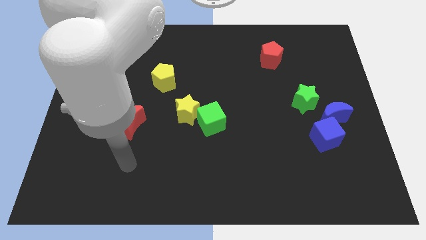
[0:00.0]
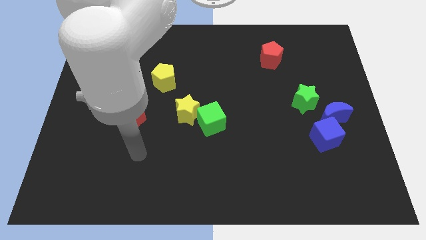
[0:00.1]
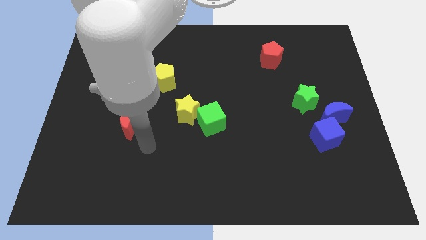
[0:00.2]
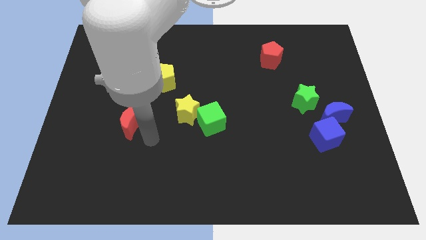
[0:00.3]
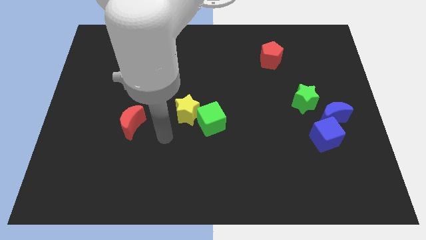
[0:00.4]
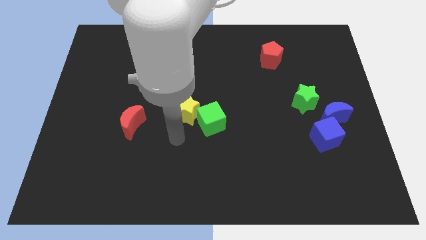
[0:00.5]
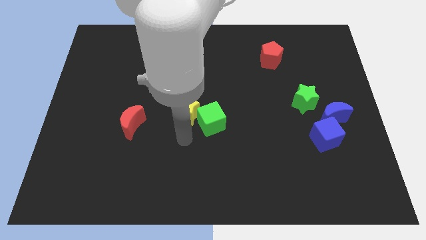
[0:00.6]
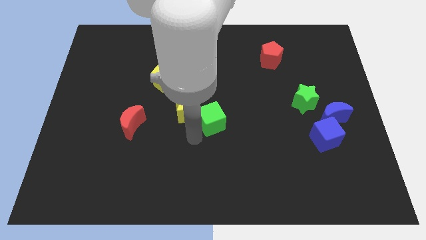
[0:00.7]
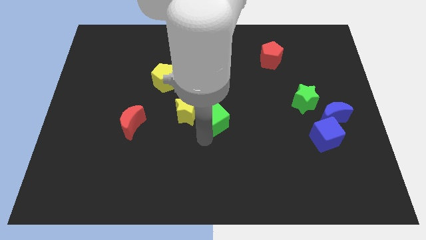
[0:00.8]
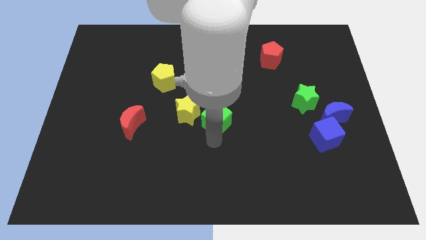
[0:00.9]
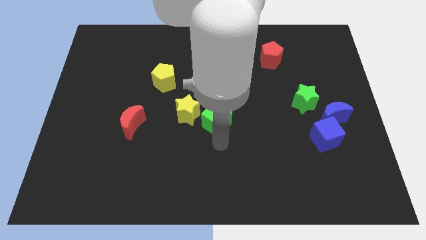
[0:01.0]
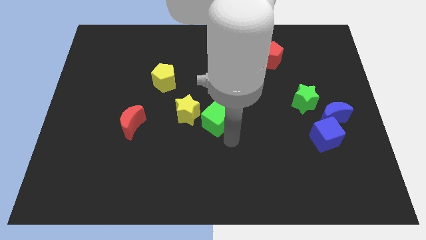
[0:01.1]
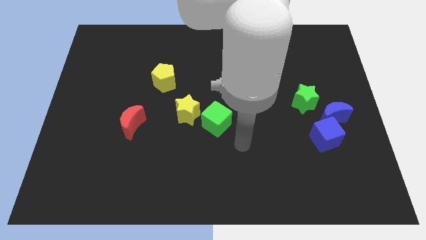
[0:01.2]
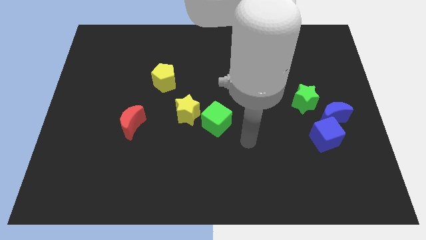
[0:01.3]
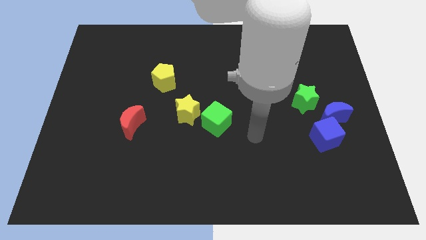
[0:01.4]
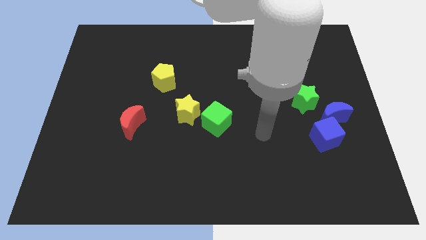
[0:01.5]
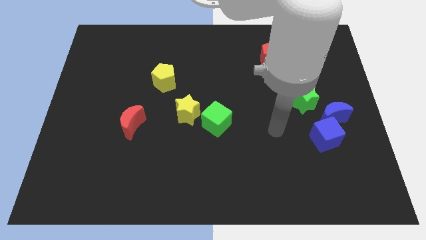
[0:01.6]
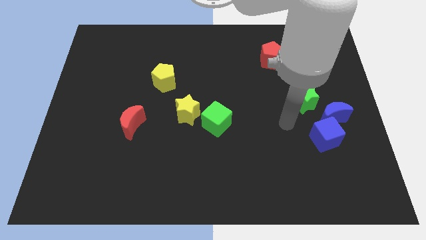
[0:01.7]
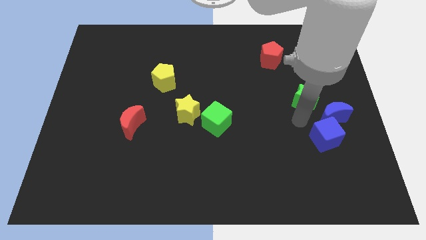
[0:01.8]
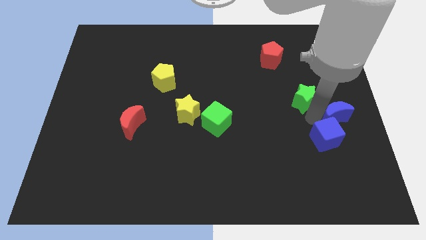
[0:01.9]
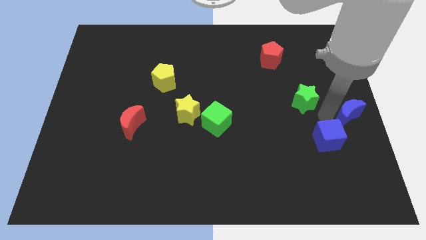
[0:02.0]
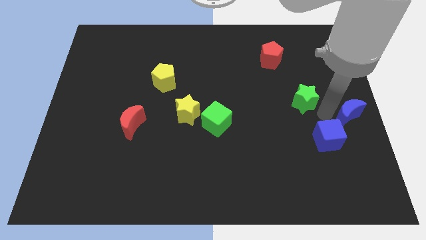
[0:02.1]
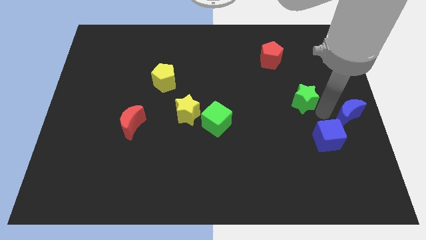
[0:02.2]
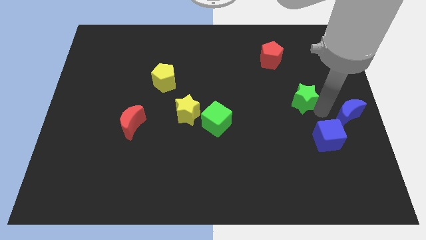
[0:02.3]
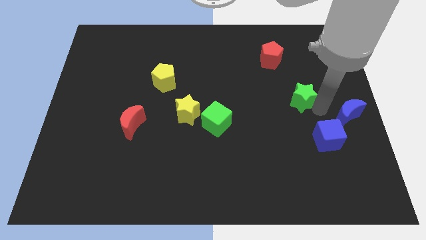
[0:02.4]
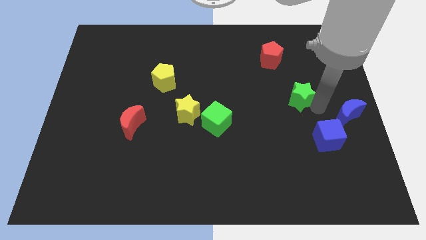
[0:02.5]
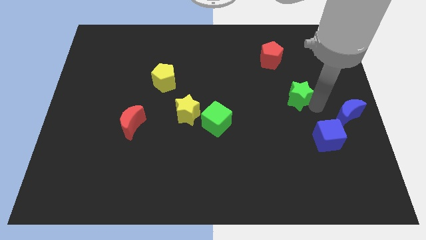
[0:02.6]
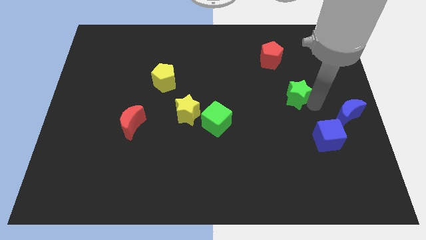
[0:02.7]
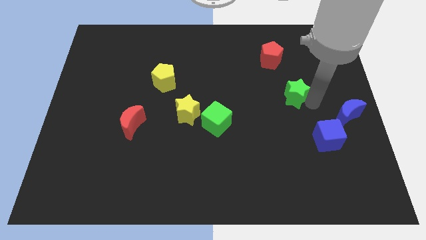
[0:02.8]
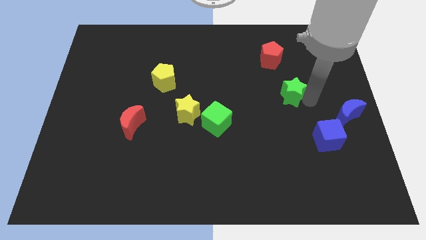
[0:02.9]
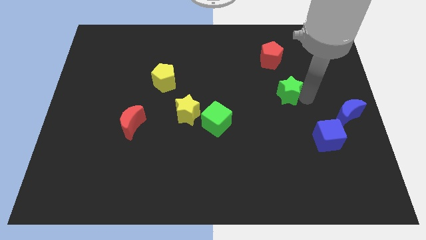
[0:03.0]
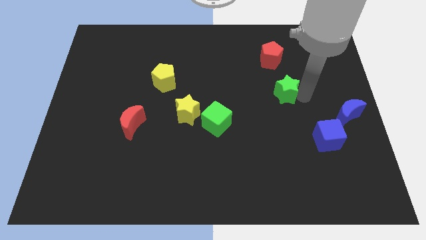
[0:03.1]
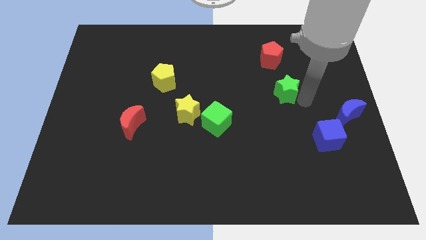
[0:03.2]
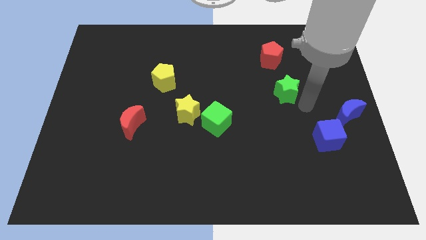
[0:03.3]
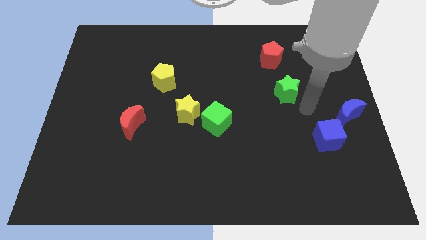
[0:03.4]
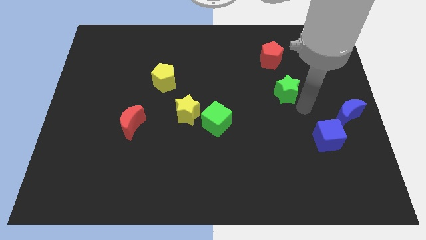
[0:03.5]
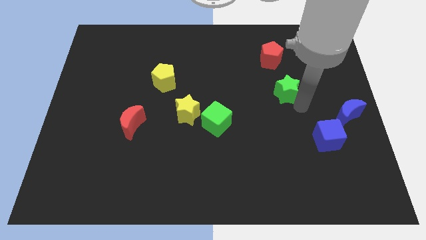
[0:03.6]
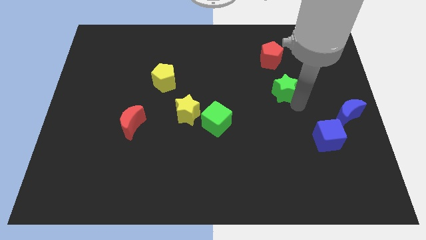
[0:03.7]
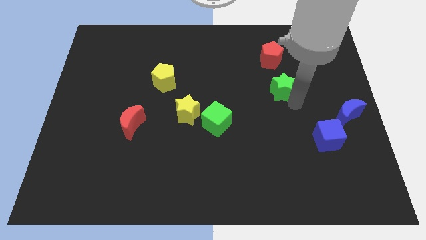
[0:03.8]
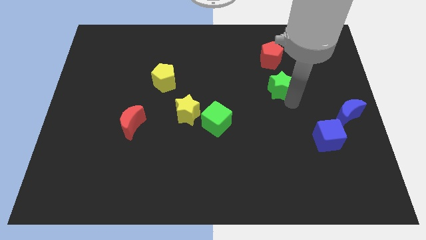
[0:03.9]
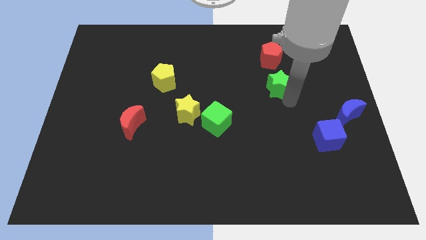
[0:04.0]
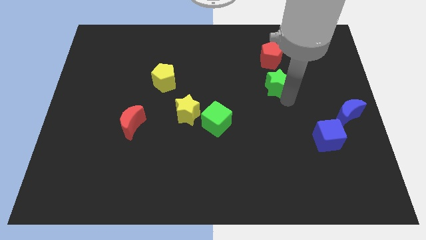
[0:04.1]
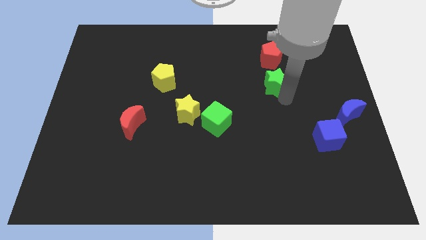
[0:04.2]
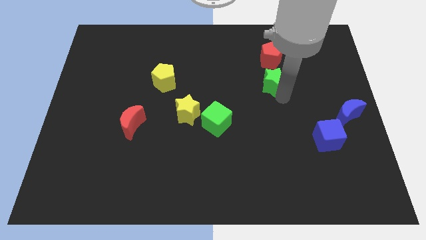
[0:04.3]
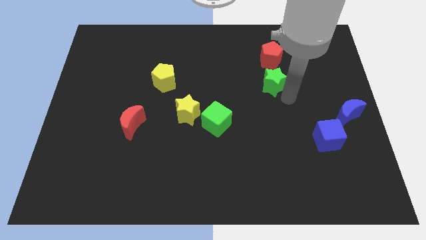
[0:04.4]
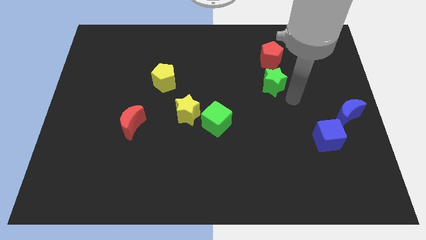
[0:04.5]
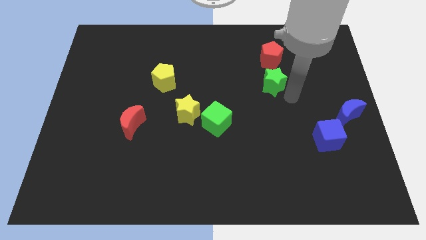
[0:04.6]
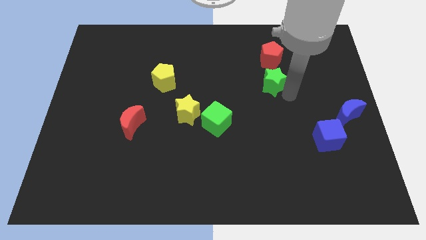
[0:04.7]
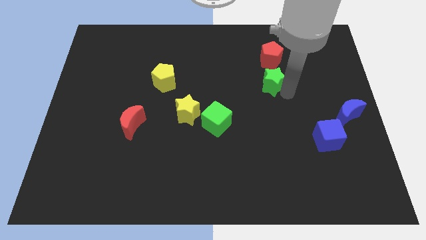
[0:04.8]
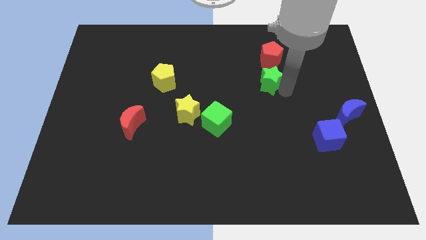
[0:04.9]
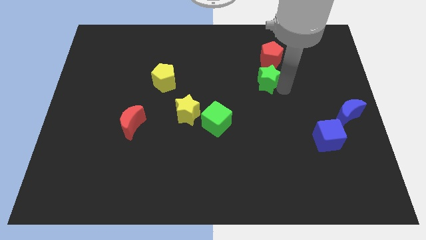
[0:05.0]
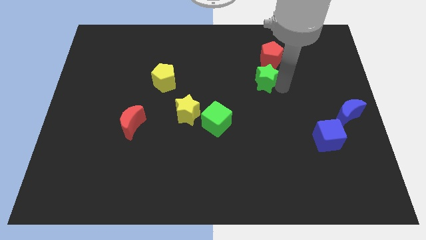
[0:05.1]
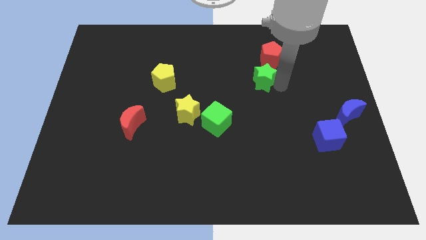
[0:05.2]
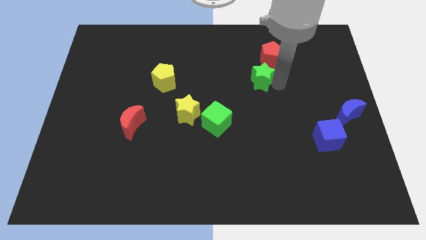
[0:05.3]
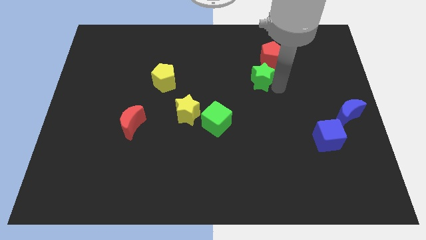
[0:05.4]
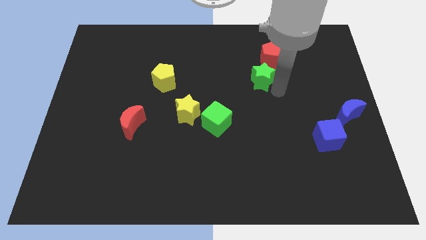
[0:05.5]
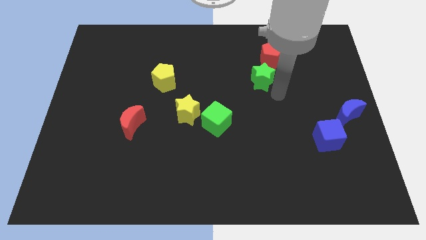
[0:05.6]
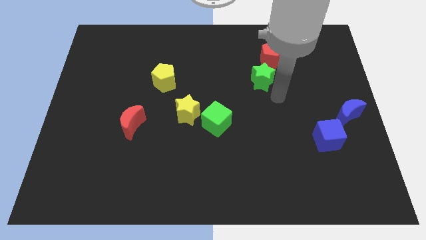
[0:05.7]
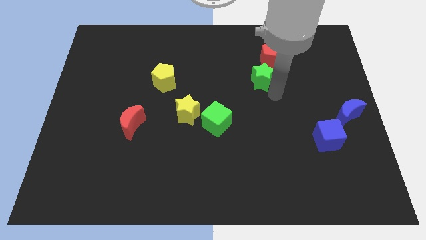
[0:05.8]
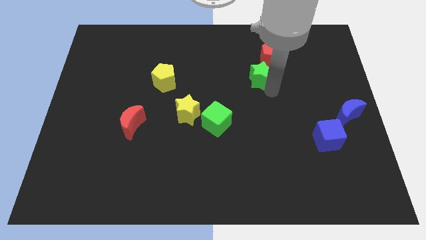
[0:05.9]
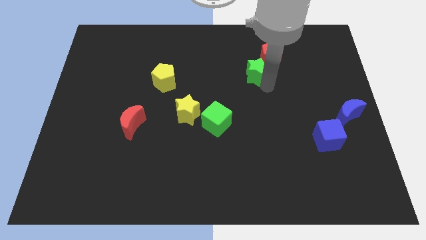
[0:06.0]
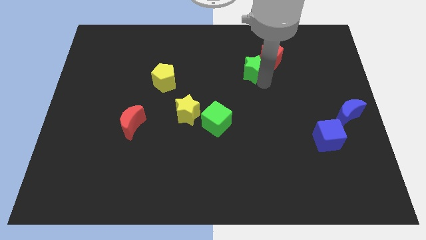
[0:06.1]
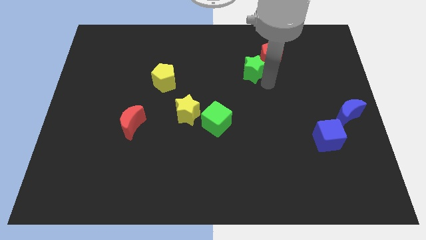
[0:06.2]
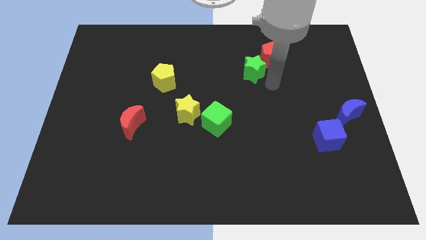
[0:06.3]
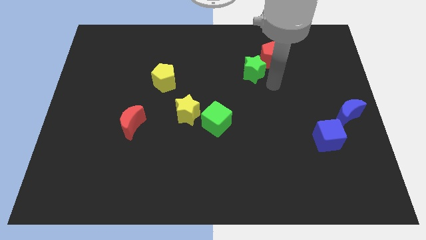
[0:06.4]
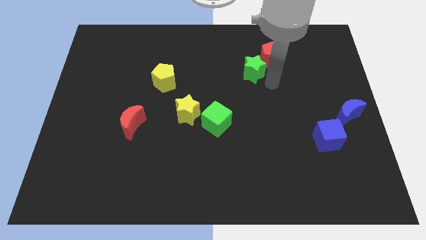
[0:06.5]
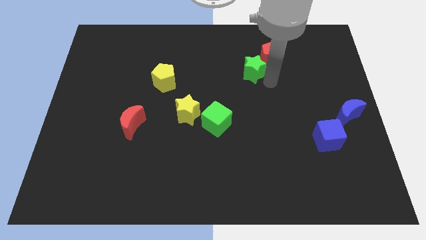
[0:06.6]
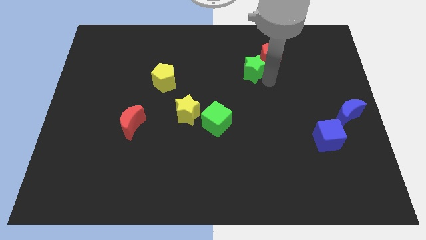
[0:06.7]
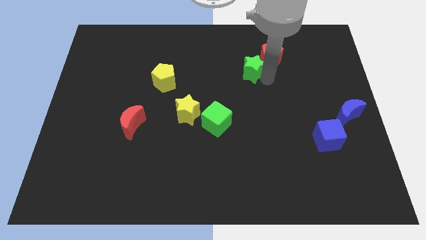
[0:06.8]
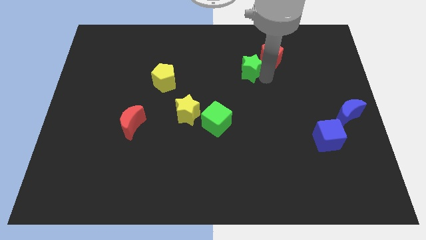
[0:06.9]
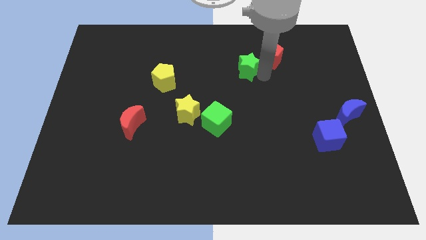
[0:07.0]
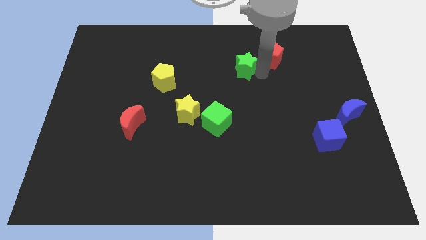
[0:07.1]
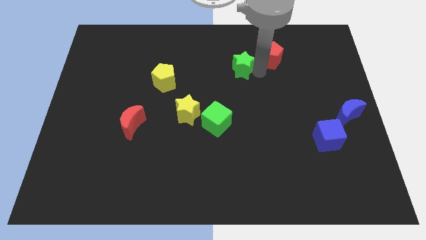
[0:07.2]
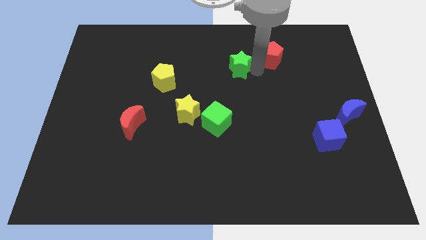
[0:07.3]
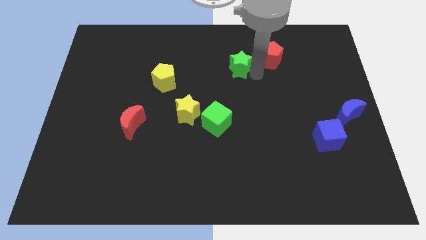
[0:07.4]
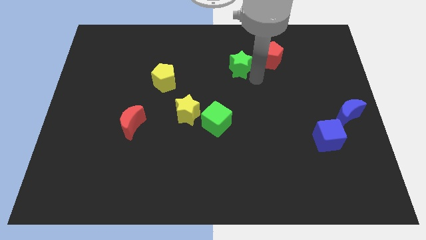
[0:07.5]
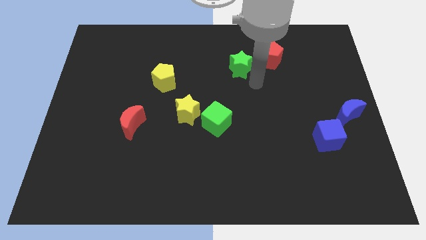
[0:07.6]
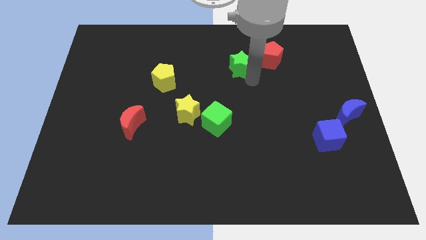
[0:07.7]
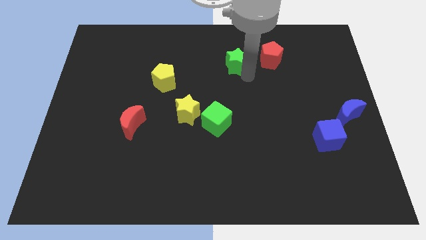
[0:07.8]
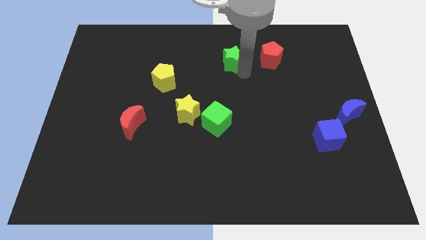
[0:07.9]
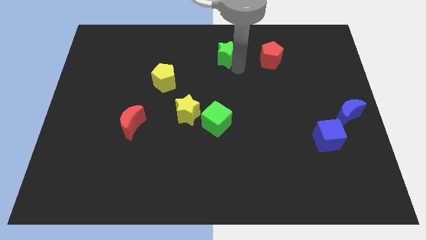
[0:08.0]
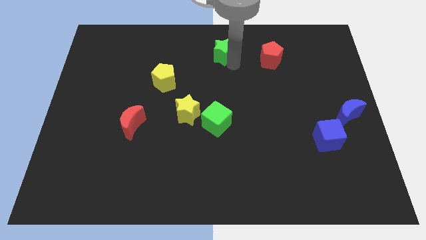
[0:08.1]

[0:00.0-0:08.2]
push the green star to the top side
